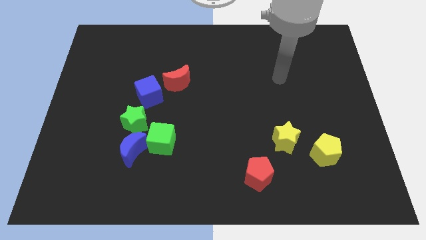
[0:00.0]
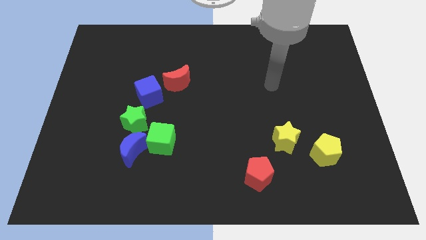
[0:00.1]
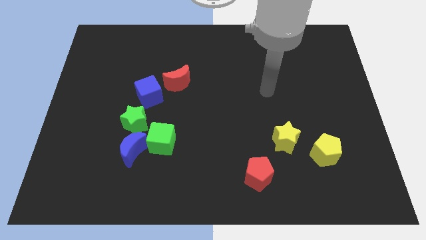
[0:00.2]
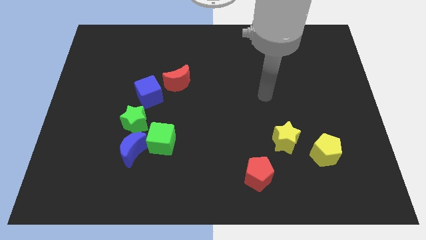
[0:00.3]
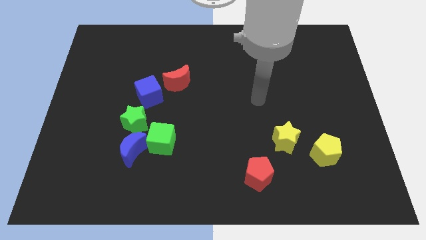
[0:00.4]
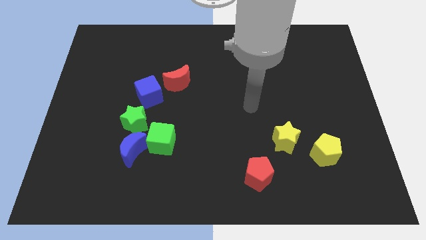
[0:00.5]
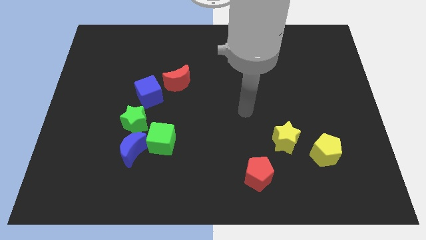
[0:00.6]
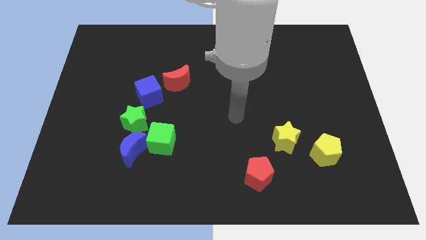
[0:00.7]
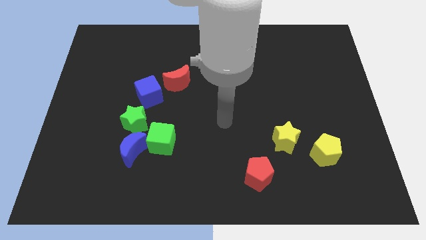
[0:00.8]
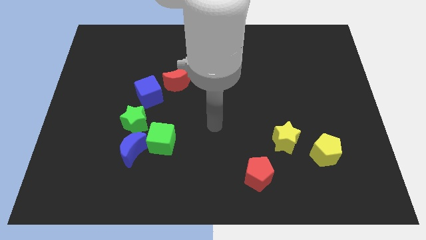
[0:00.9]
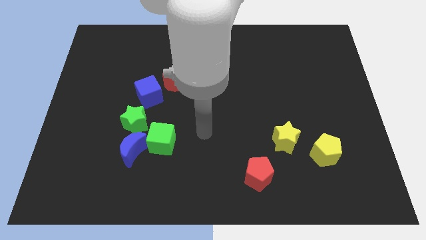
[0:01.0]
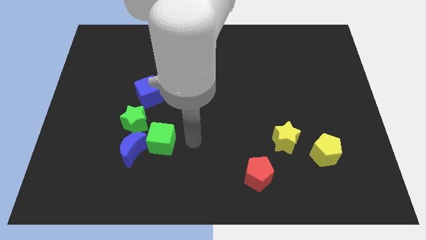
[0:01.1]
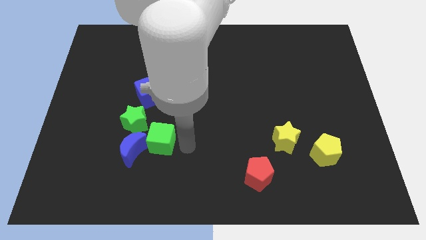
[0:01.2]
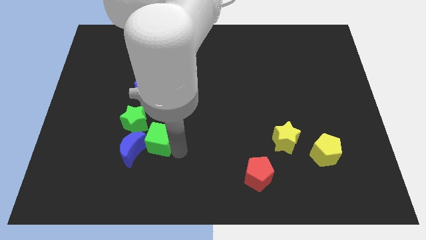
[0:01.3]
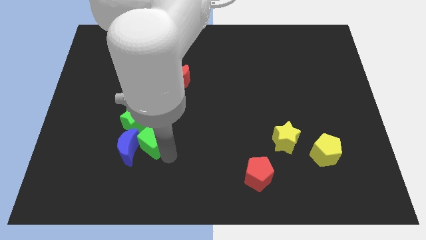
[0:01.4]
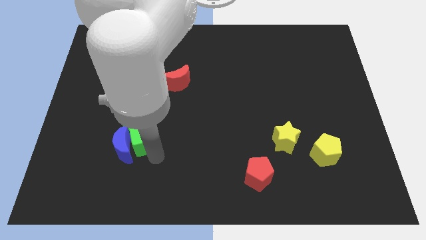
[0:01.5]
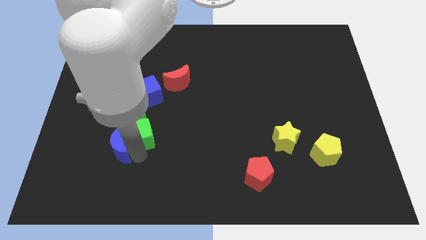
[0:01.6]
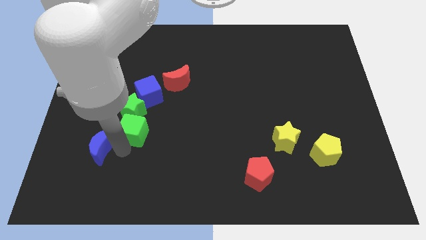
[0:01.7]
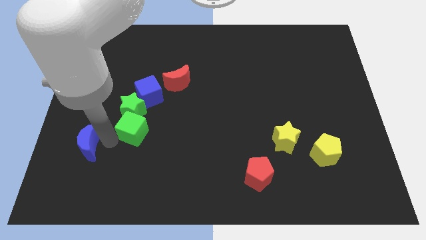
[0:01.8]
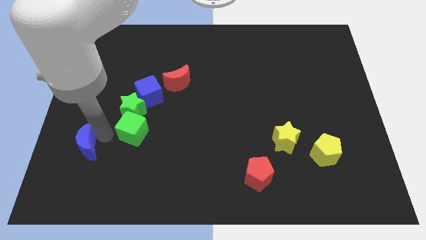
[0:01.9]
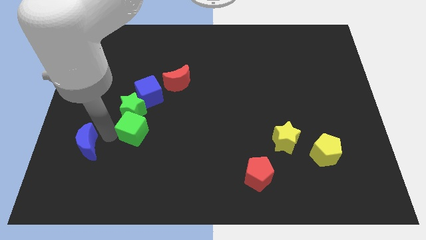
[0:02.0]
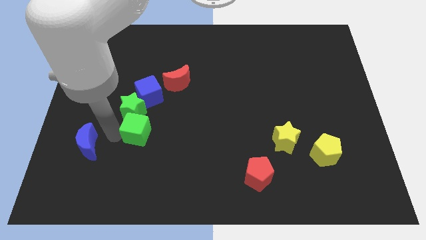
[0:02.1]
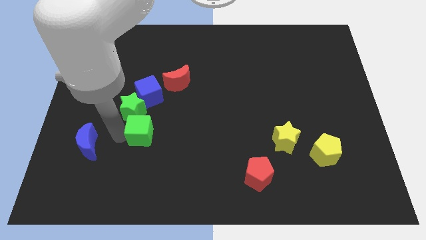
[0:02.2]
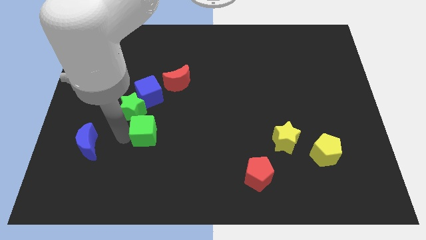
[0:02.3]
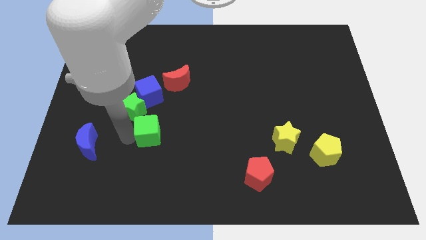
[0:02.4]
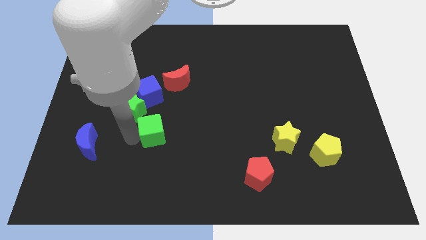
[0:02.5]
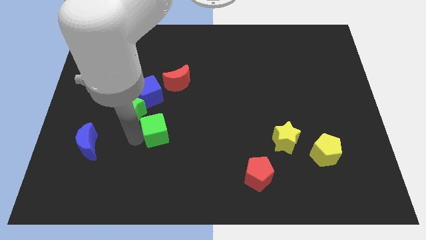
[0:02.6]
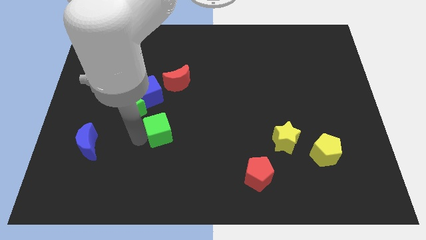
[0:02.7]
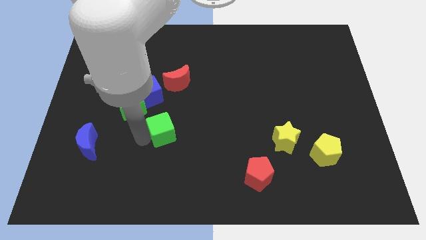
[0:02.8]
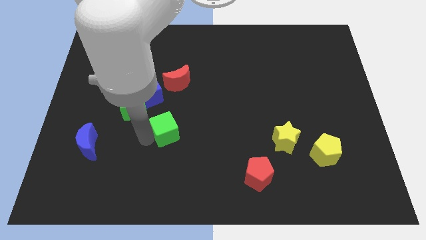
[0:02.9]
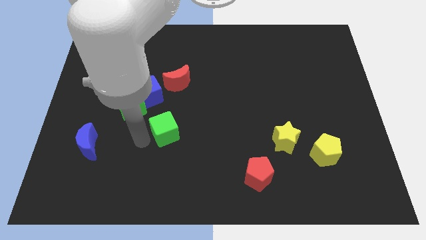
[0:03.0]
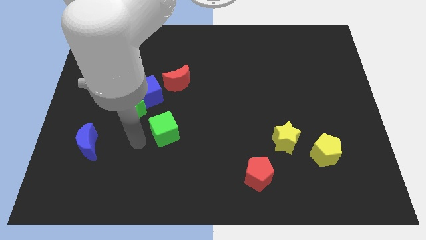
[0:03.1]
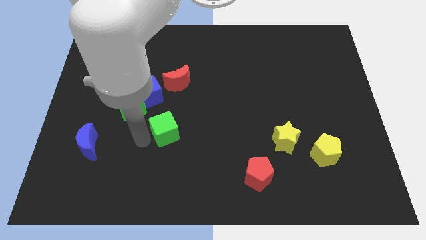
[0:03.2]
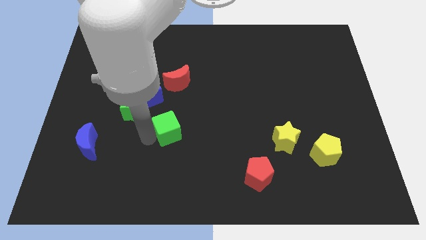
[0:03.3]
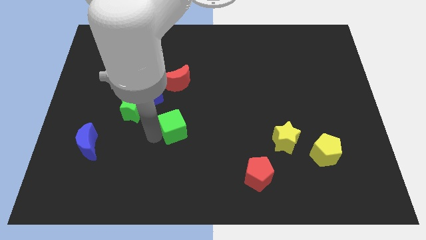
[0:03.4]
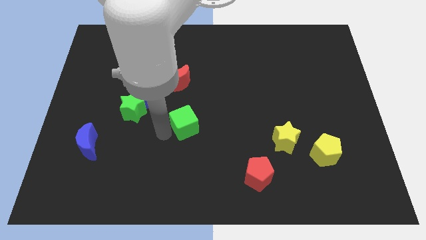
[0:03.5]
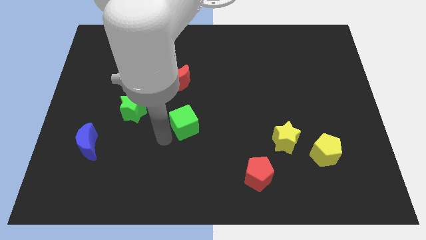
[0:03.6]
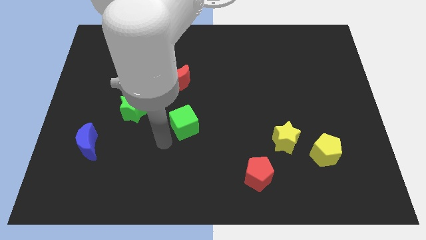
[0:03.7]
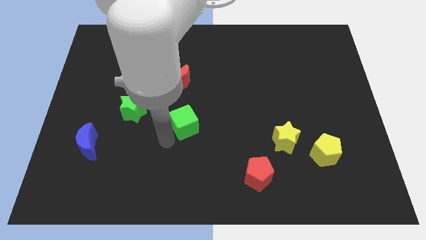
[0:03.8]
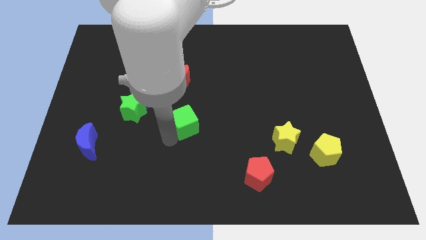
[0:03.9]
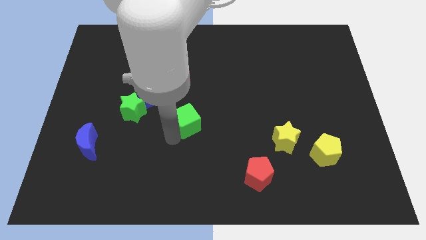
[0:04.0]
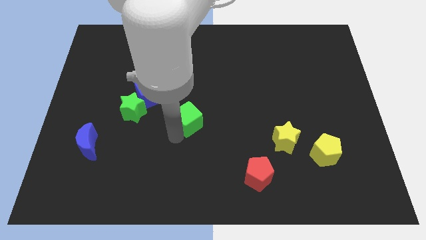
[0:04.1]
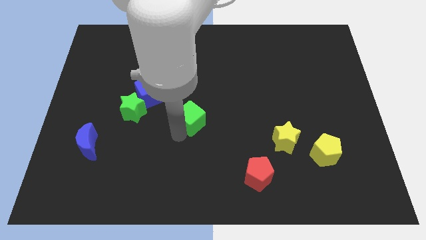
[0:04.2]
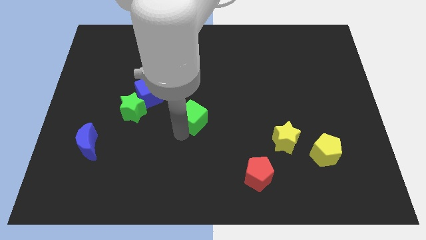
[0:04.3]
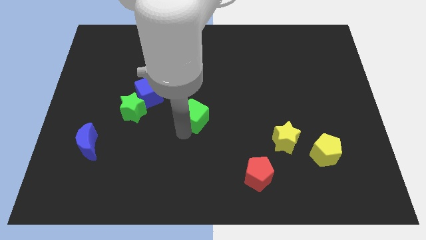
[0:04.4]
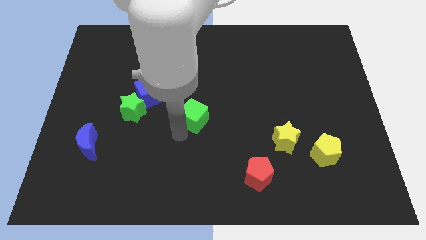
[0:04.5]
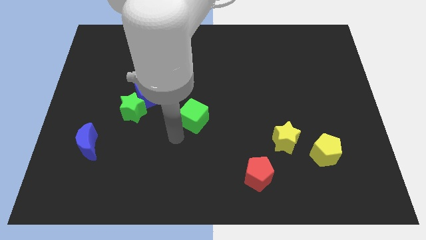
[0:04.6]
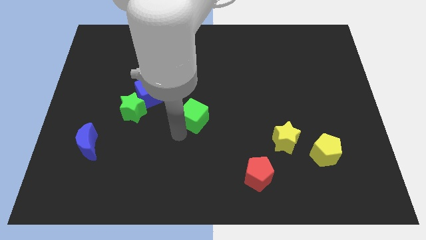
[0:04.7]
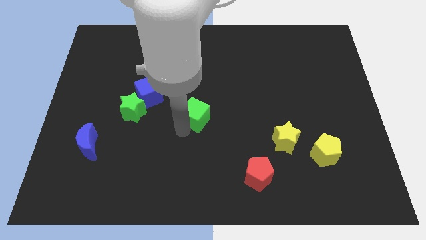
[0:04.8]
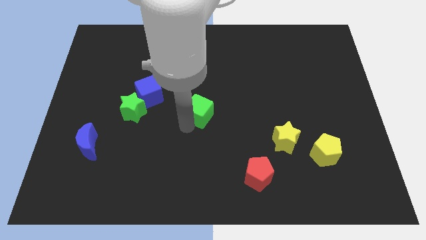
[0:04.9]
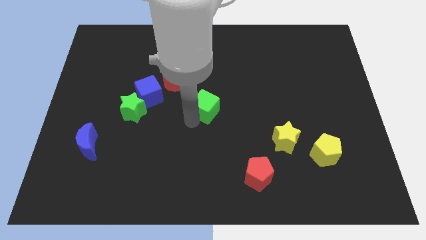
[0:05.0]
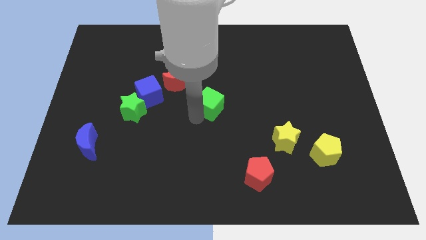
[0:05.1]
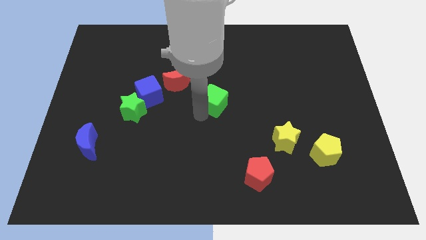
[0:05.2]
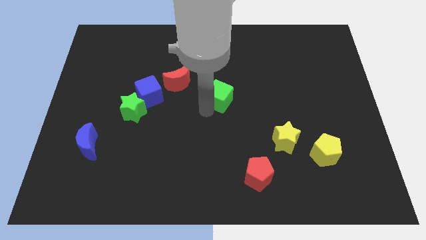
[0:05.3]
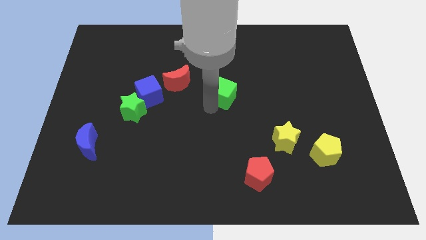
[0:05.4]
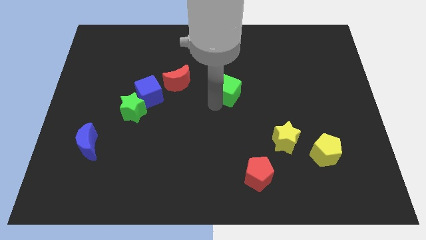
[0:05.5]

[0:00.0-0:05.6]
push the green cube upwards and to the right diagonally

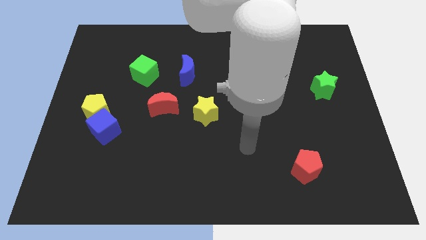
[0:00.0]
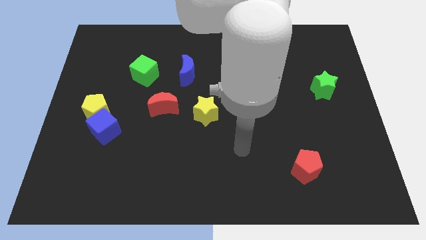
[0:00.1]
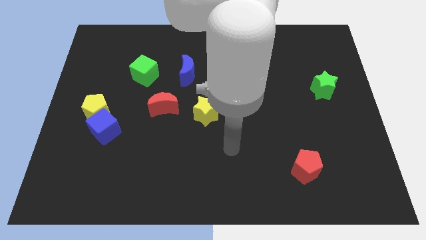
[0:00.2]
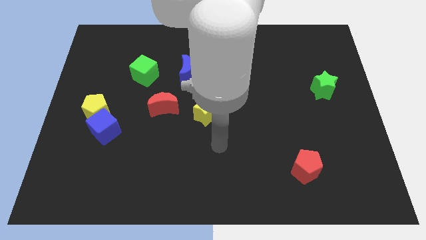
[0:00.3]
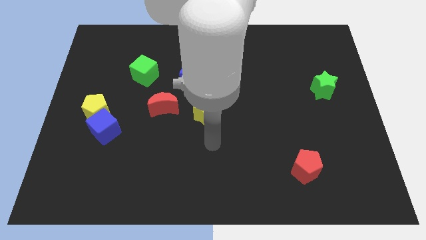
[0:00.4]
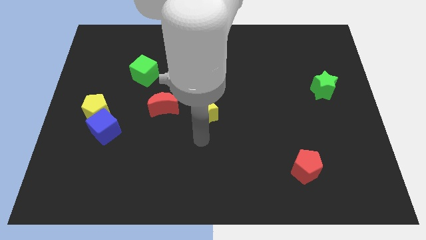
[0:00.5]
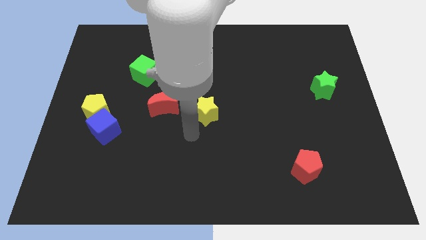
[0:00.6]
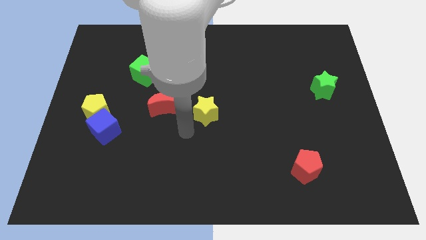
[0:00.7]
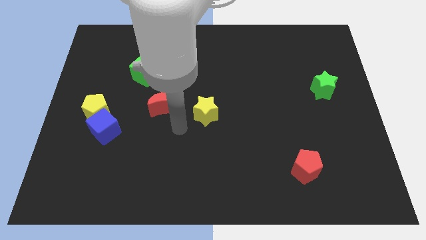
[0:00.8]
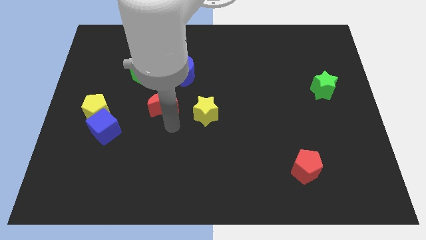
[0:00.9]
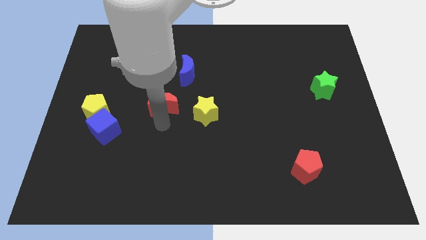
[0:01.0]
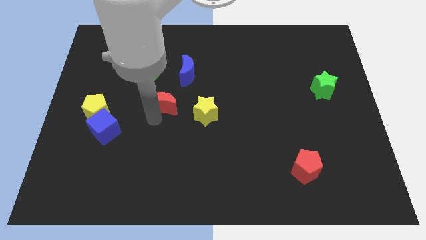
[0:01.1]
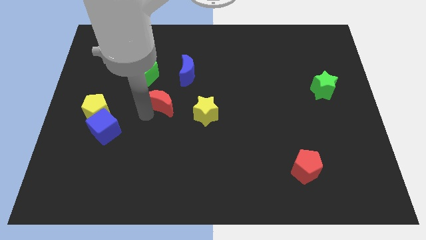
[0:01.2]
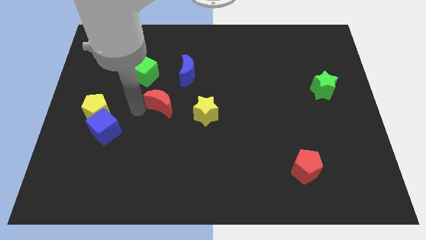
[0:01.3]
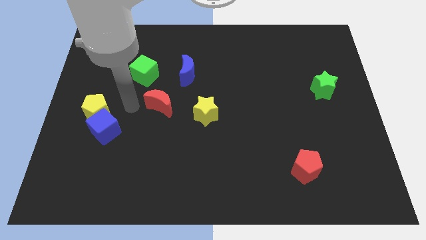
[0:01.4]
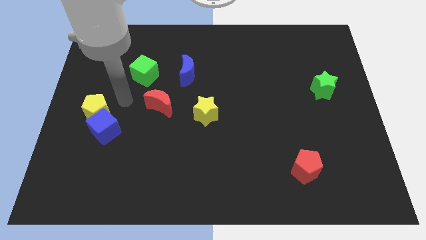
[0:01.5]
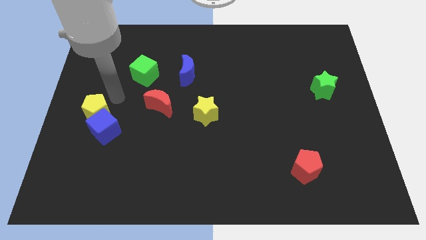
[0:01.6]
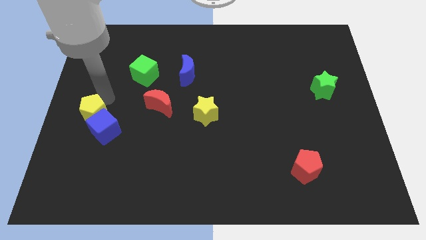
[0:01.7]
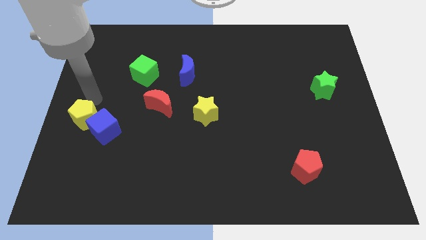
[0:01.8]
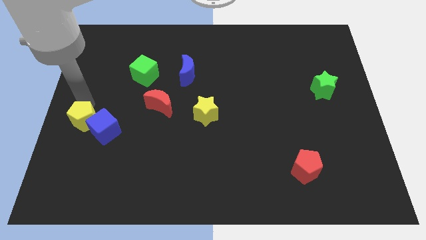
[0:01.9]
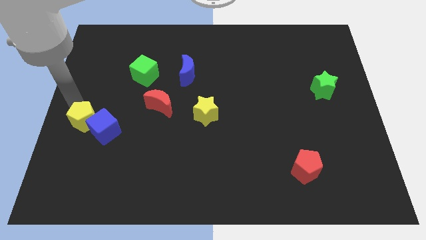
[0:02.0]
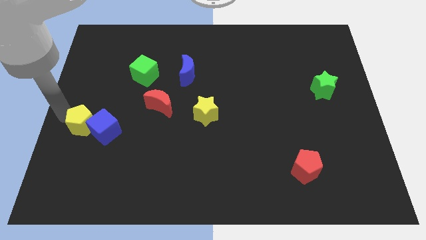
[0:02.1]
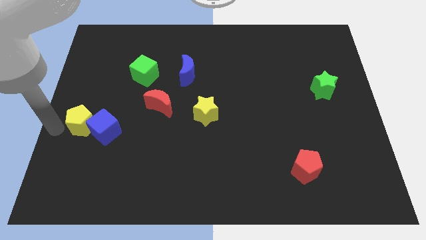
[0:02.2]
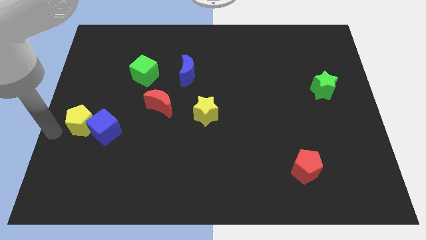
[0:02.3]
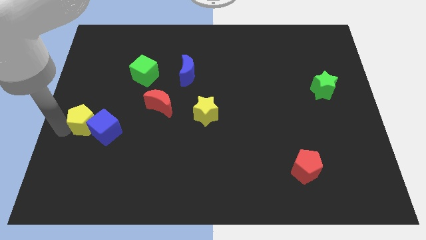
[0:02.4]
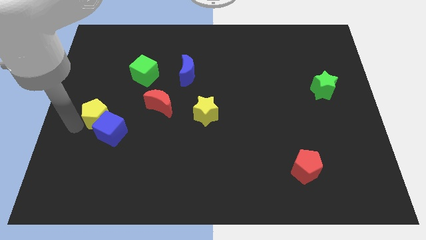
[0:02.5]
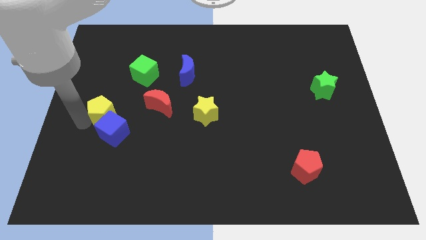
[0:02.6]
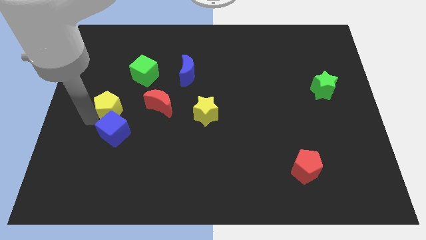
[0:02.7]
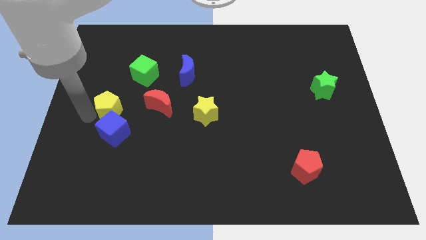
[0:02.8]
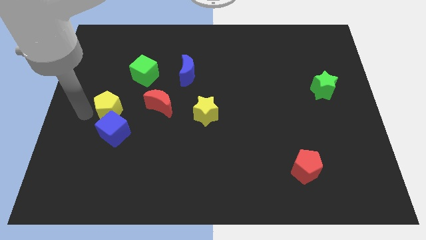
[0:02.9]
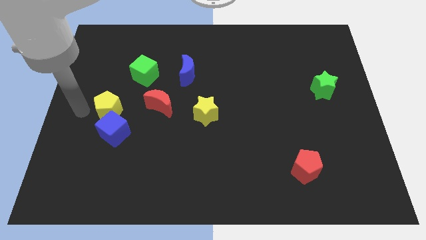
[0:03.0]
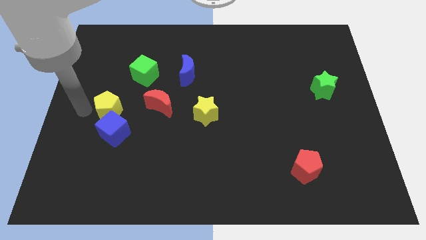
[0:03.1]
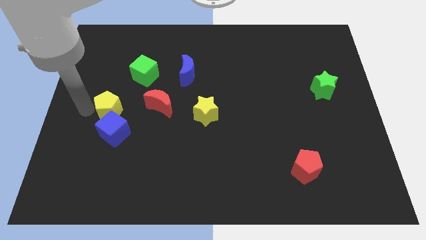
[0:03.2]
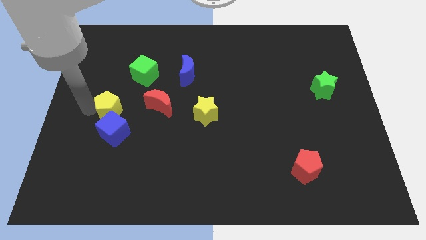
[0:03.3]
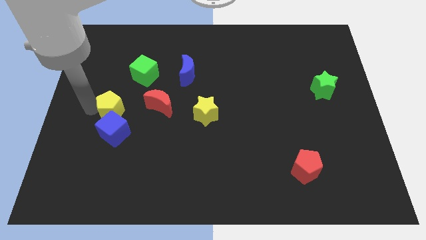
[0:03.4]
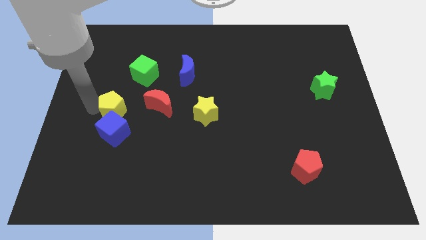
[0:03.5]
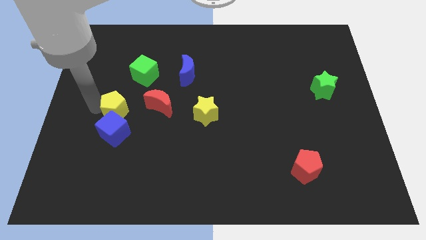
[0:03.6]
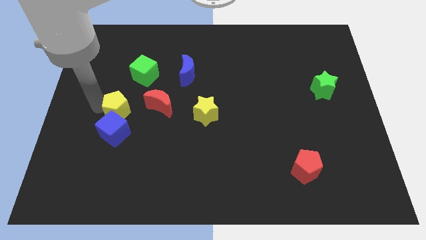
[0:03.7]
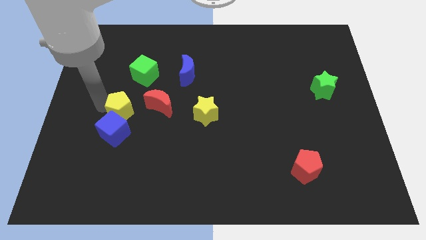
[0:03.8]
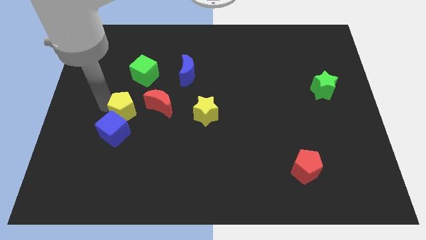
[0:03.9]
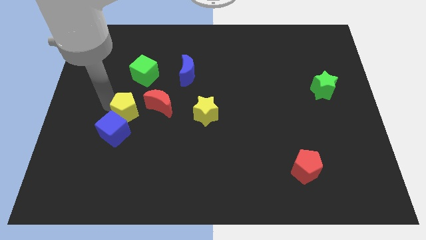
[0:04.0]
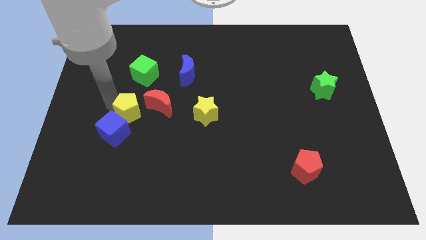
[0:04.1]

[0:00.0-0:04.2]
move the yellow pentagon slightly to the right
